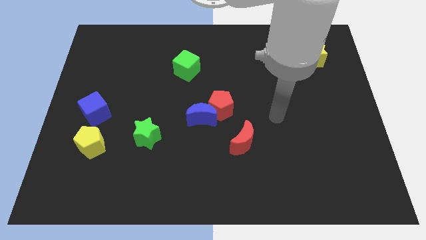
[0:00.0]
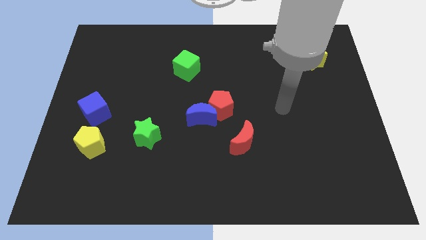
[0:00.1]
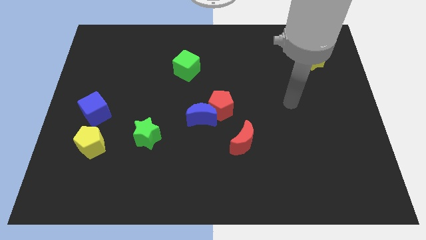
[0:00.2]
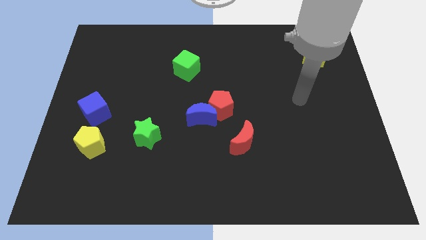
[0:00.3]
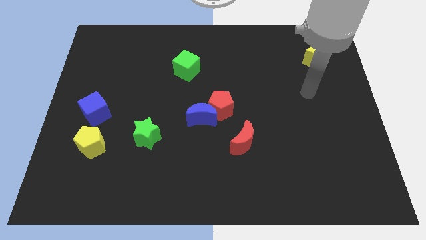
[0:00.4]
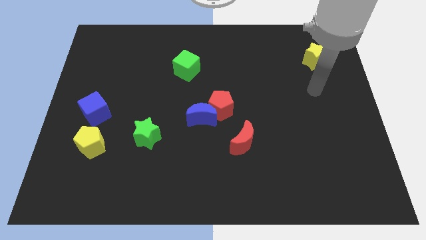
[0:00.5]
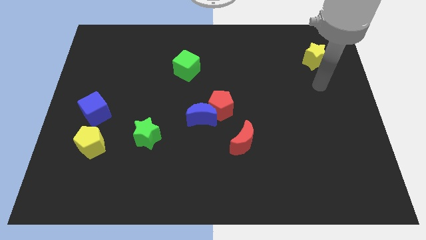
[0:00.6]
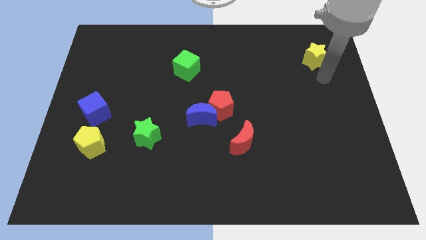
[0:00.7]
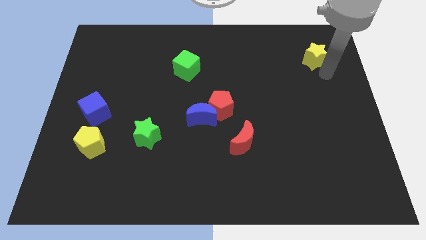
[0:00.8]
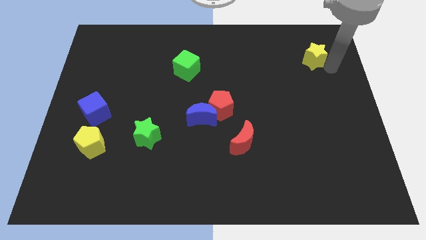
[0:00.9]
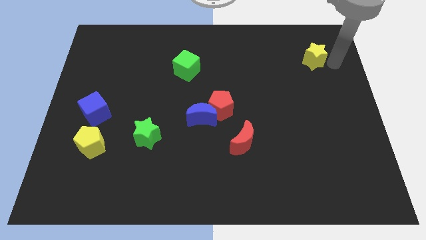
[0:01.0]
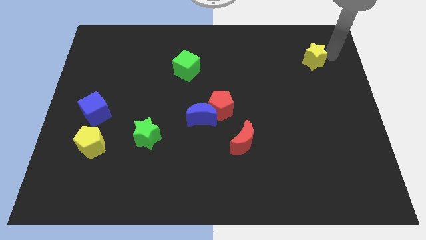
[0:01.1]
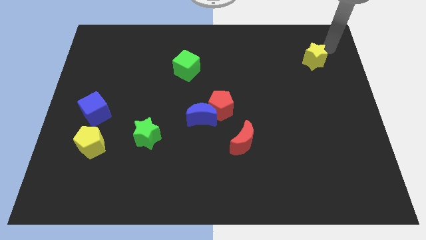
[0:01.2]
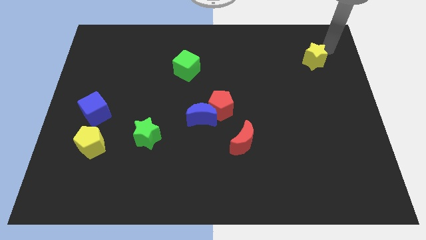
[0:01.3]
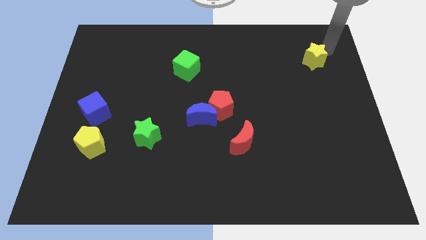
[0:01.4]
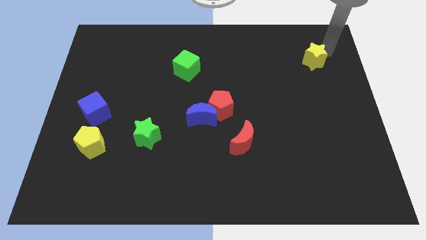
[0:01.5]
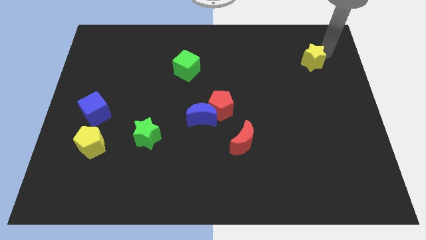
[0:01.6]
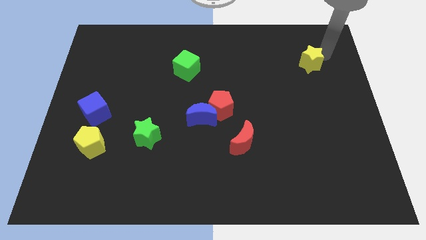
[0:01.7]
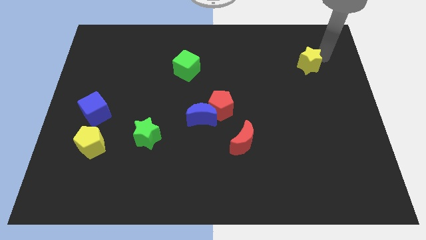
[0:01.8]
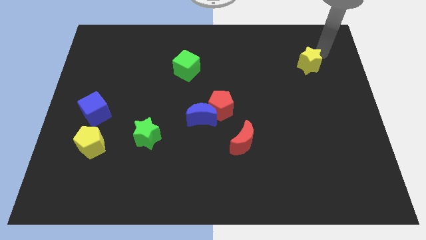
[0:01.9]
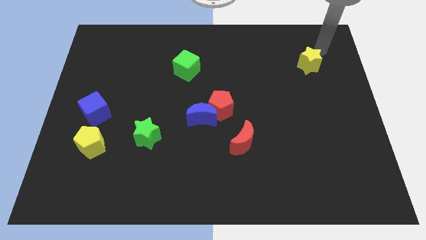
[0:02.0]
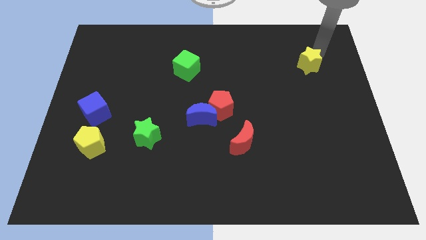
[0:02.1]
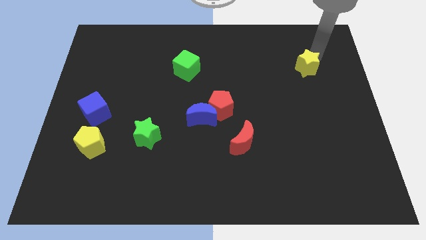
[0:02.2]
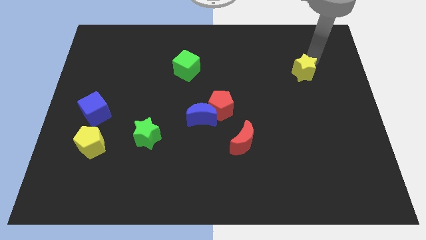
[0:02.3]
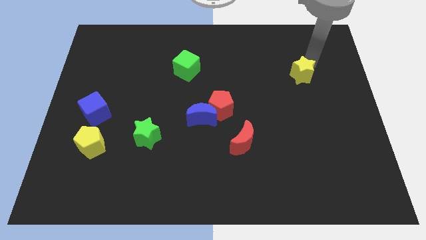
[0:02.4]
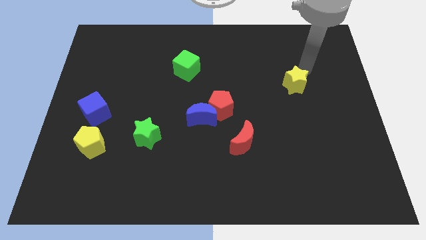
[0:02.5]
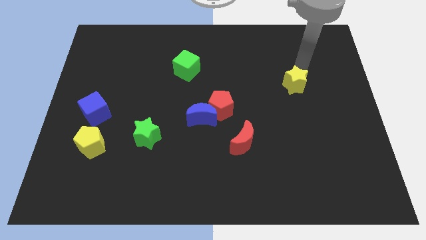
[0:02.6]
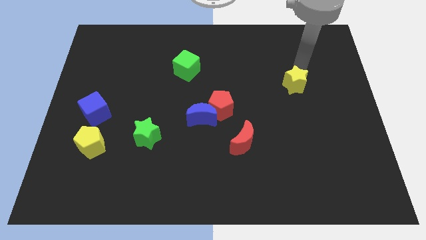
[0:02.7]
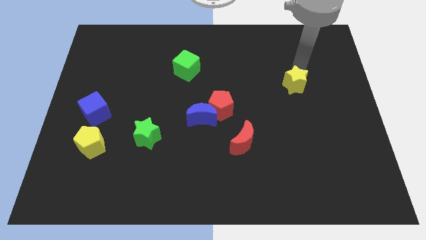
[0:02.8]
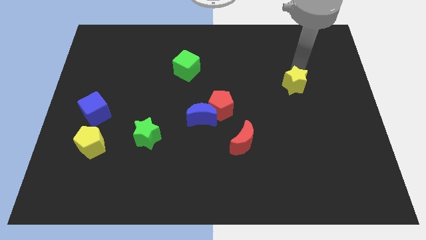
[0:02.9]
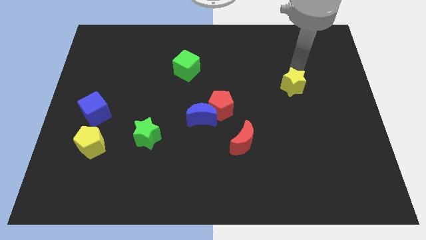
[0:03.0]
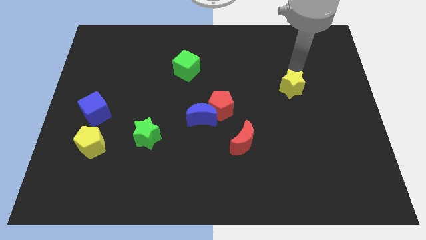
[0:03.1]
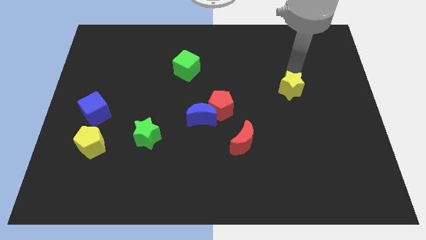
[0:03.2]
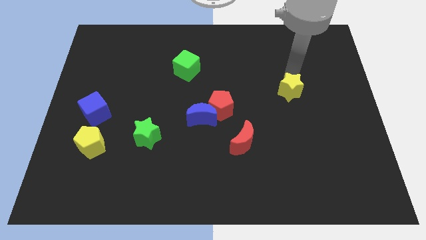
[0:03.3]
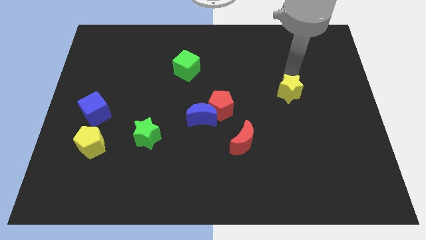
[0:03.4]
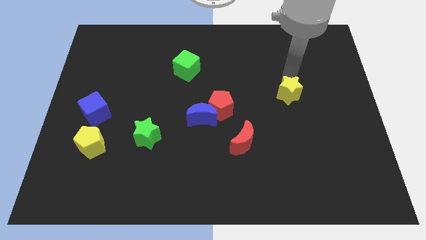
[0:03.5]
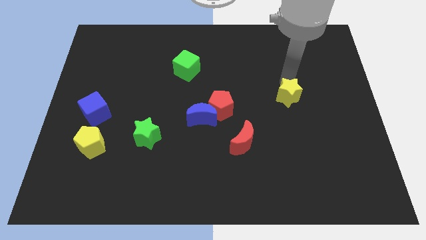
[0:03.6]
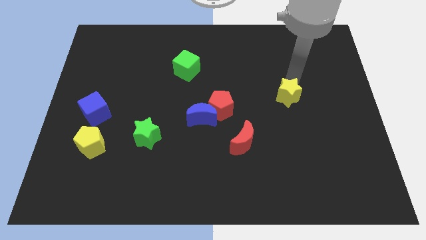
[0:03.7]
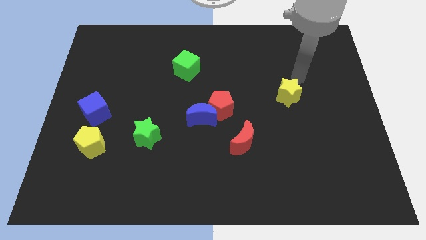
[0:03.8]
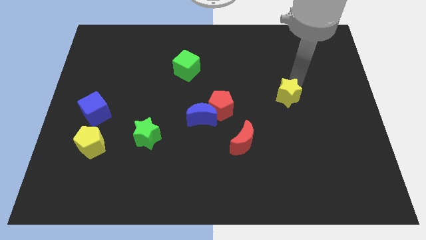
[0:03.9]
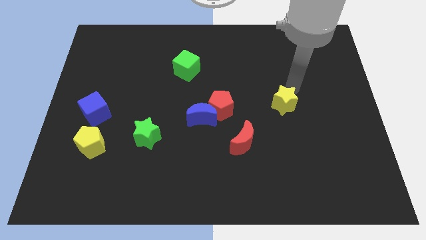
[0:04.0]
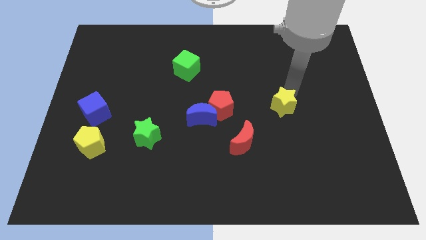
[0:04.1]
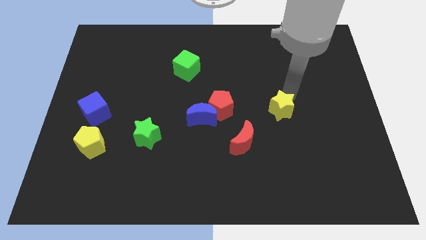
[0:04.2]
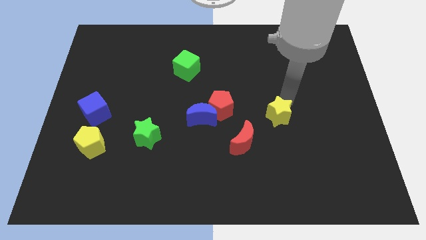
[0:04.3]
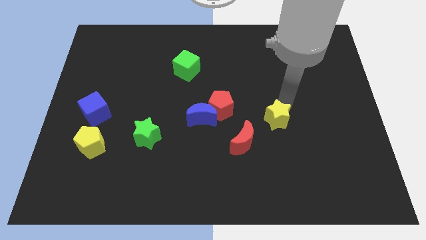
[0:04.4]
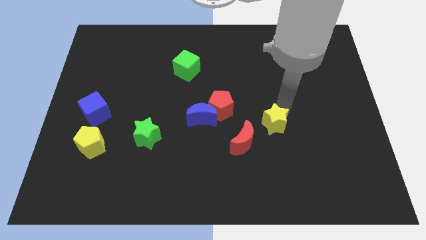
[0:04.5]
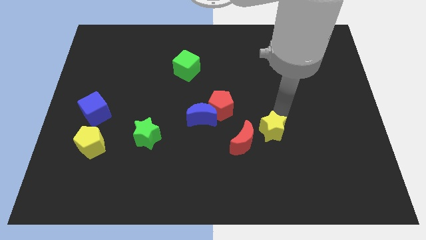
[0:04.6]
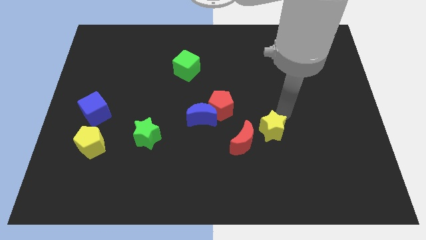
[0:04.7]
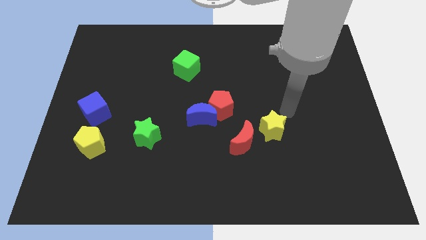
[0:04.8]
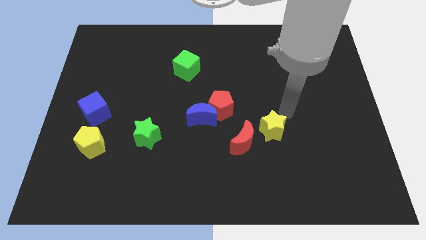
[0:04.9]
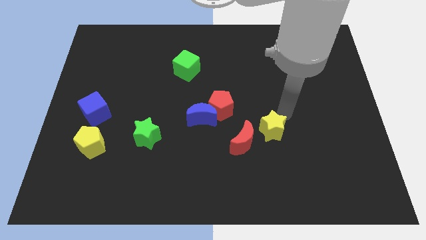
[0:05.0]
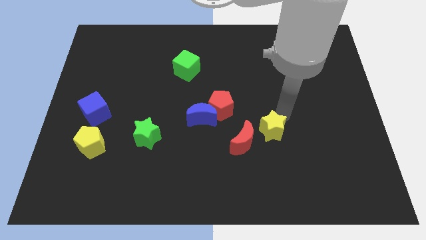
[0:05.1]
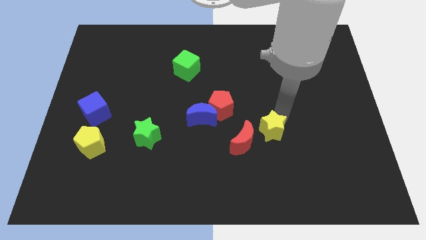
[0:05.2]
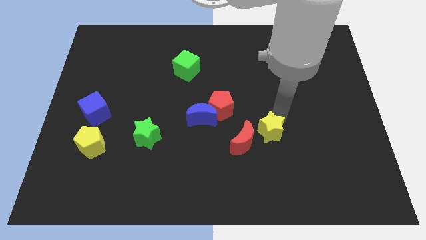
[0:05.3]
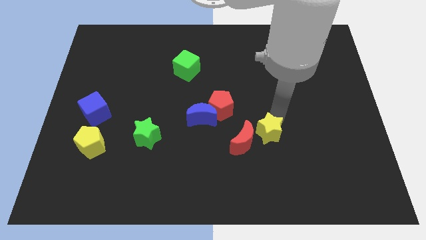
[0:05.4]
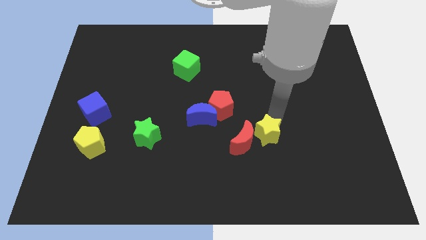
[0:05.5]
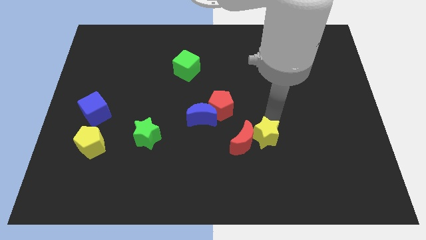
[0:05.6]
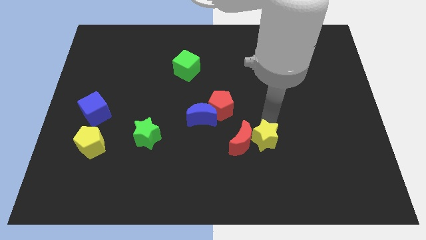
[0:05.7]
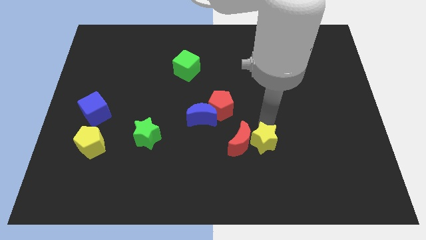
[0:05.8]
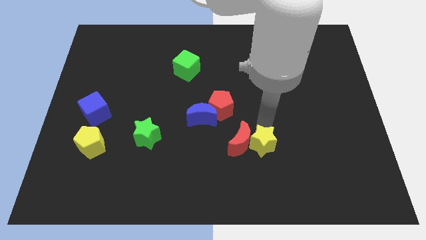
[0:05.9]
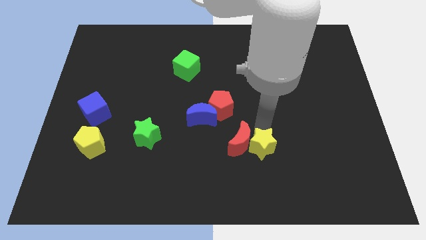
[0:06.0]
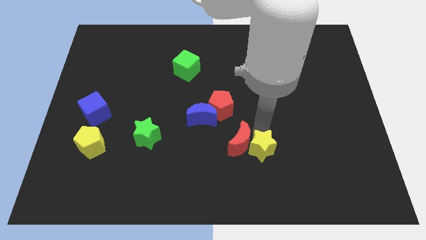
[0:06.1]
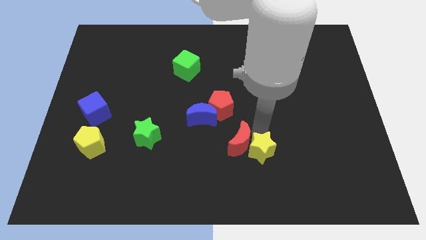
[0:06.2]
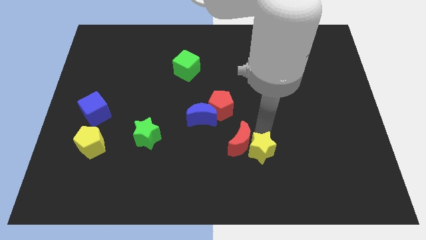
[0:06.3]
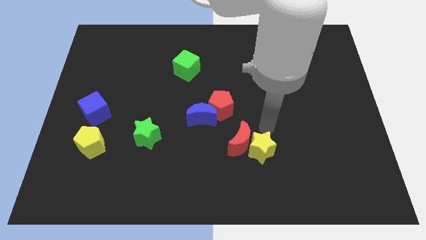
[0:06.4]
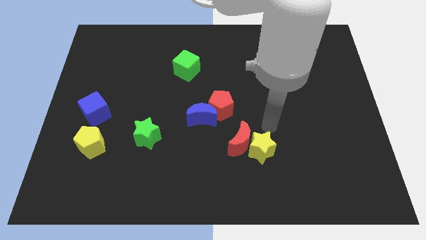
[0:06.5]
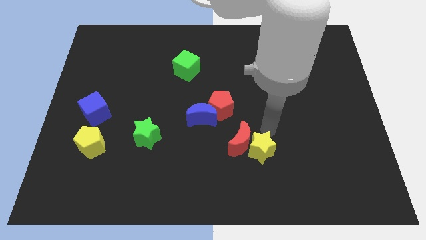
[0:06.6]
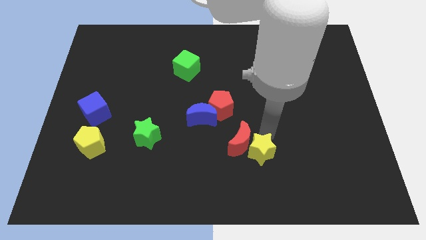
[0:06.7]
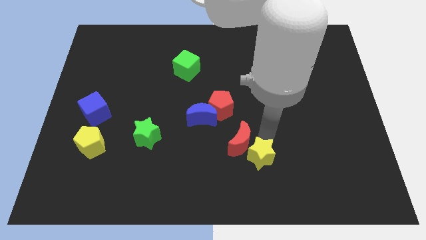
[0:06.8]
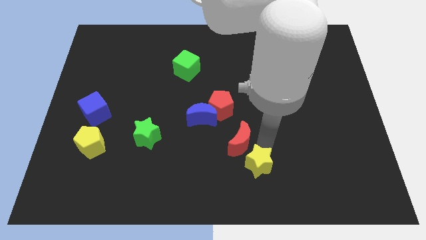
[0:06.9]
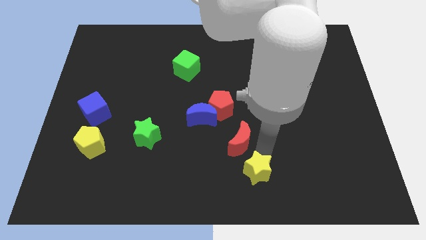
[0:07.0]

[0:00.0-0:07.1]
slide the yellow star to the bottom
